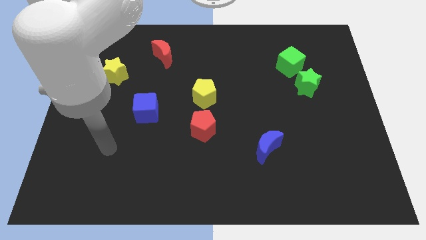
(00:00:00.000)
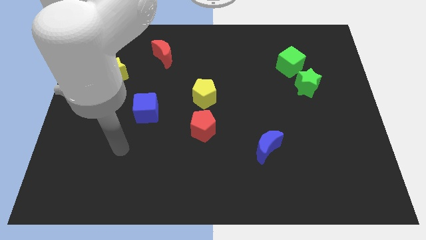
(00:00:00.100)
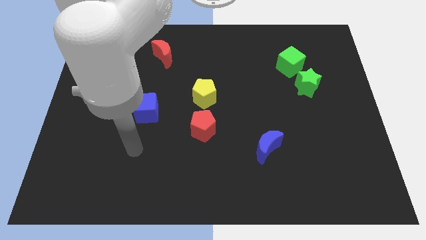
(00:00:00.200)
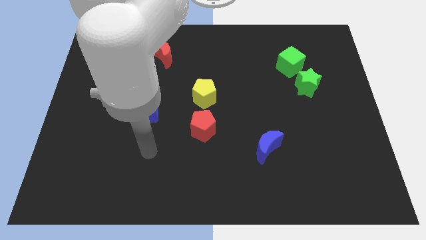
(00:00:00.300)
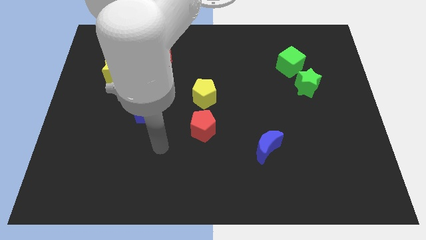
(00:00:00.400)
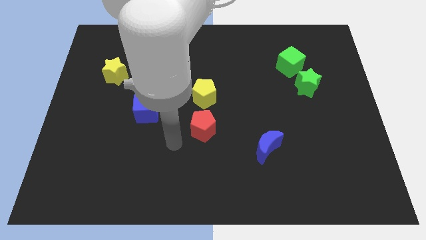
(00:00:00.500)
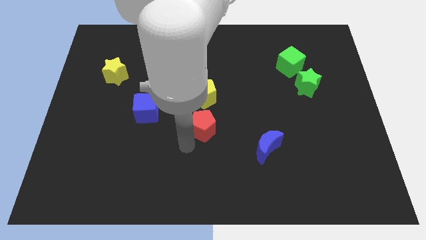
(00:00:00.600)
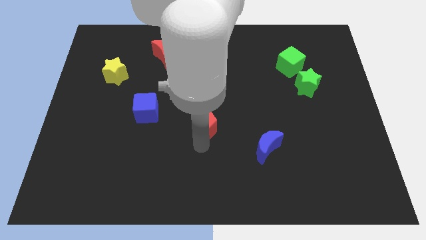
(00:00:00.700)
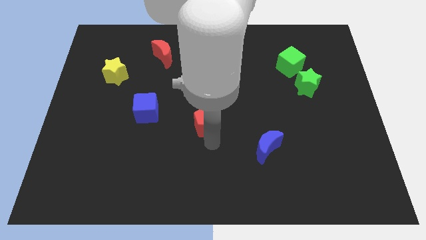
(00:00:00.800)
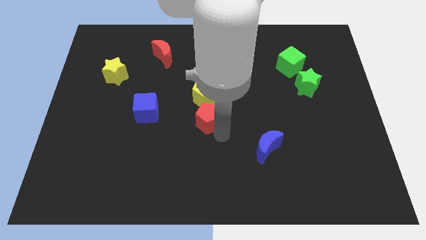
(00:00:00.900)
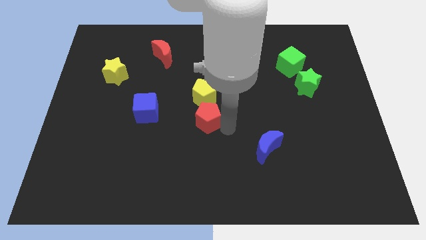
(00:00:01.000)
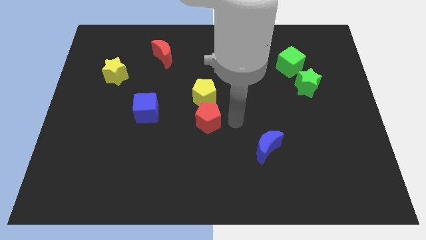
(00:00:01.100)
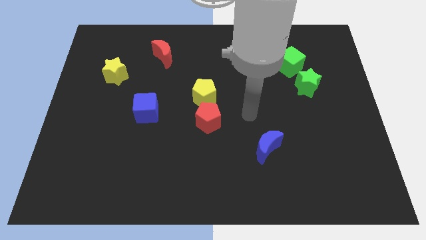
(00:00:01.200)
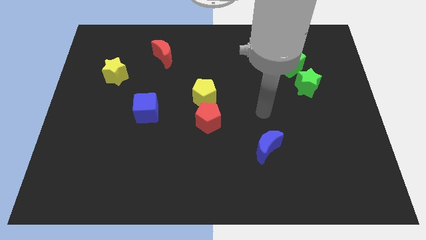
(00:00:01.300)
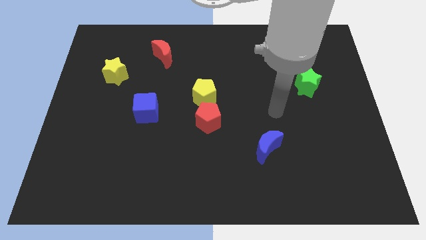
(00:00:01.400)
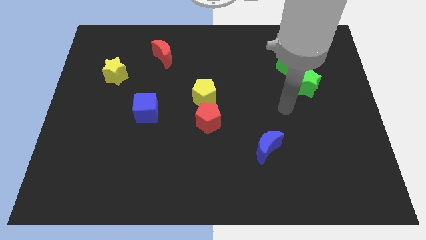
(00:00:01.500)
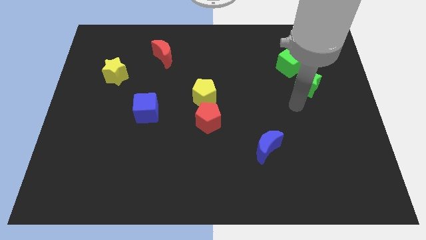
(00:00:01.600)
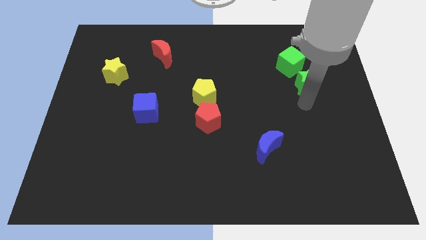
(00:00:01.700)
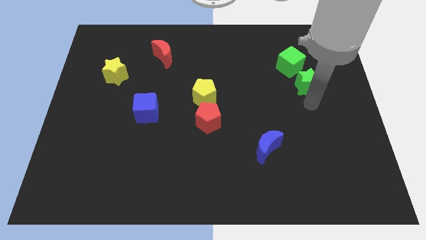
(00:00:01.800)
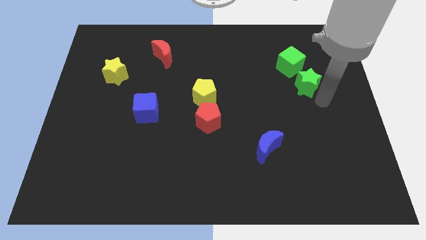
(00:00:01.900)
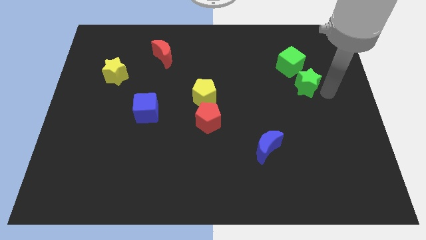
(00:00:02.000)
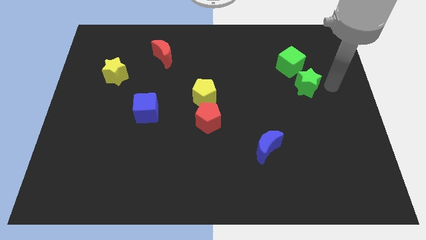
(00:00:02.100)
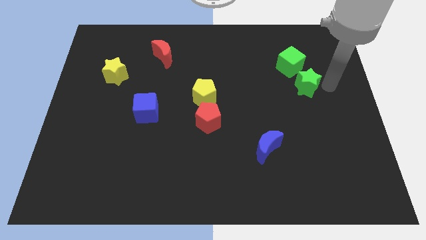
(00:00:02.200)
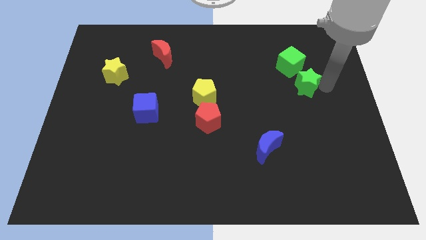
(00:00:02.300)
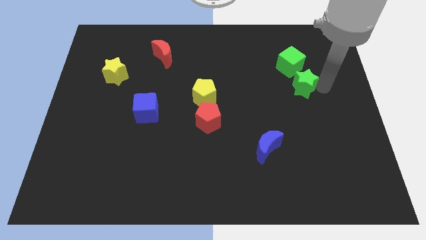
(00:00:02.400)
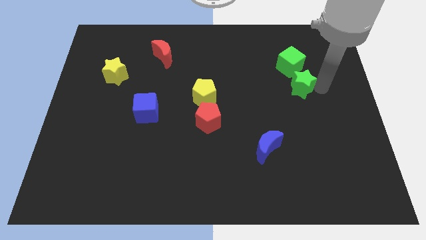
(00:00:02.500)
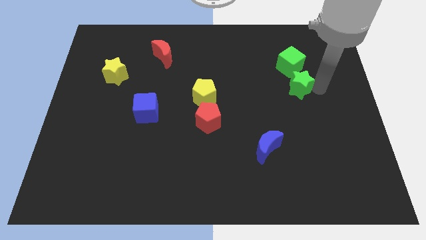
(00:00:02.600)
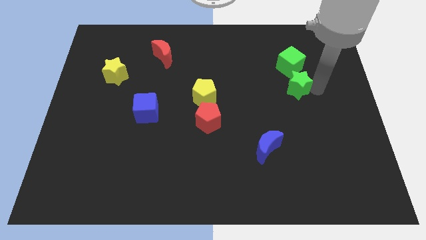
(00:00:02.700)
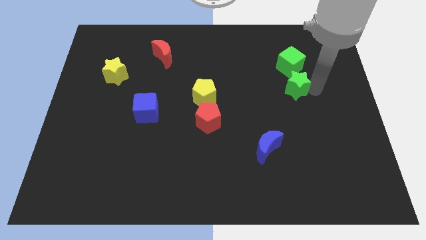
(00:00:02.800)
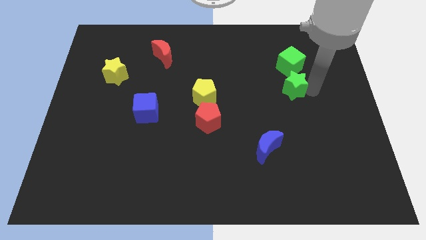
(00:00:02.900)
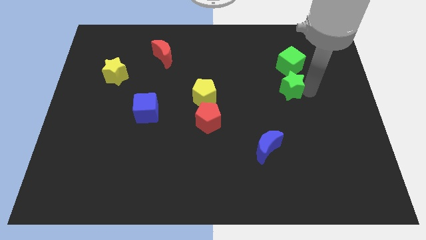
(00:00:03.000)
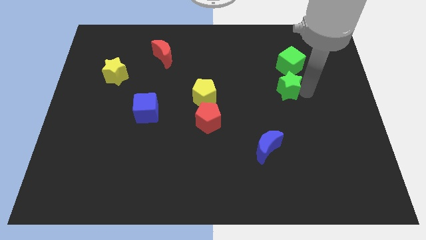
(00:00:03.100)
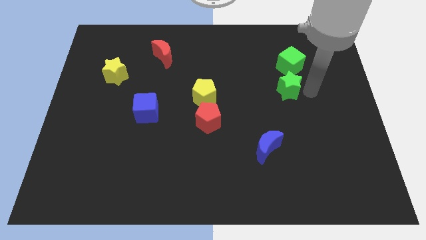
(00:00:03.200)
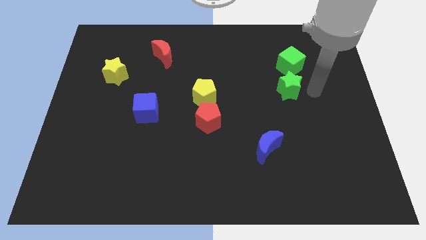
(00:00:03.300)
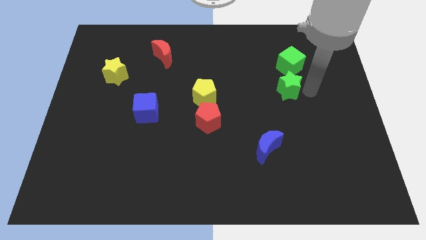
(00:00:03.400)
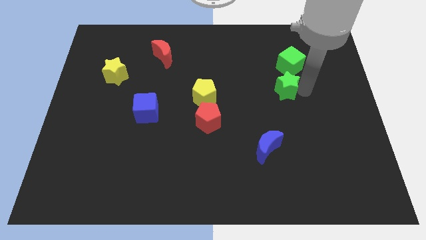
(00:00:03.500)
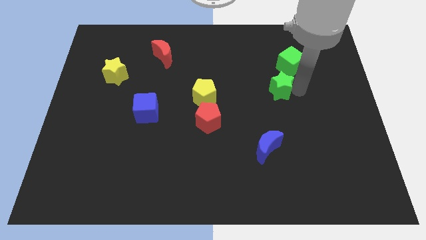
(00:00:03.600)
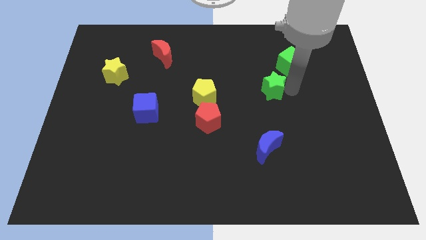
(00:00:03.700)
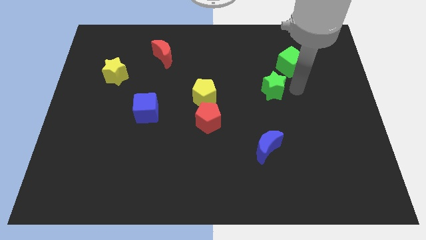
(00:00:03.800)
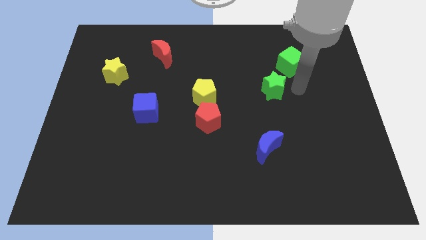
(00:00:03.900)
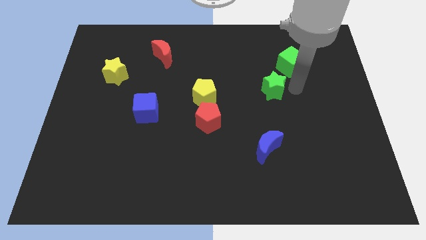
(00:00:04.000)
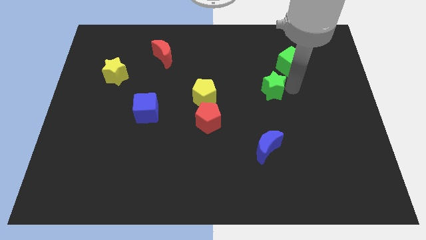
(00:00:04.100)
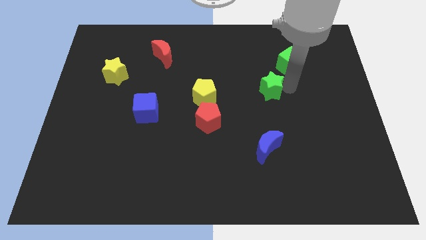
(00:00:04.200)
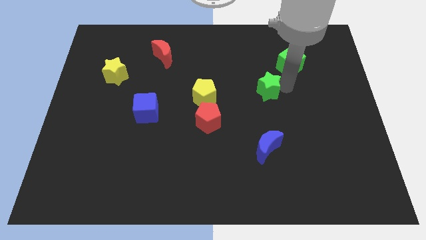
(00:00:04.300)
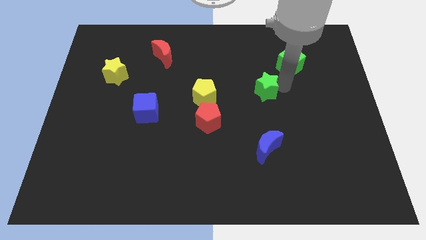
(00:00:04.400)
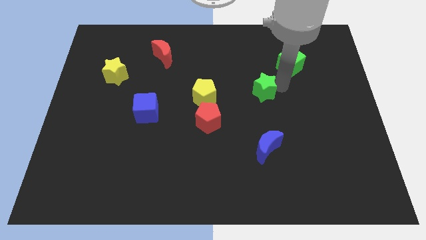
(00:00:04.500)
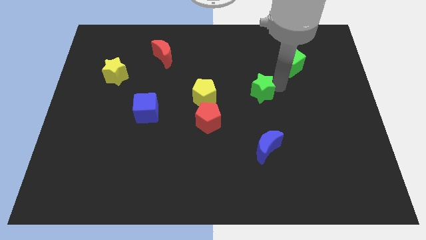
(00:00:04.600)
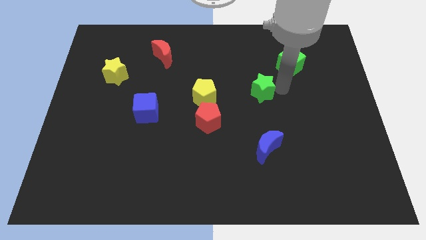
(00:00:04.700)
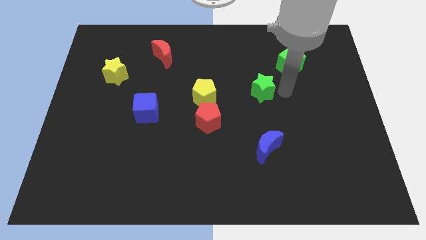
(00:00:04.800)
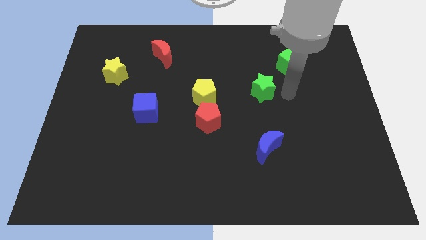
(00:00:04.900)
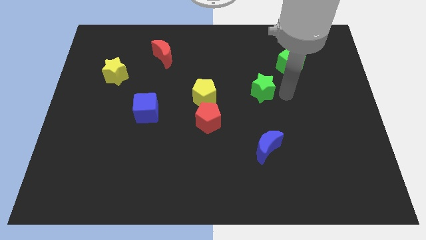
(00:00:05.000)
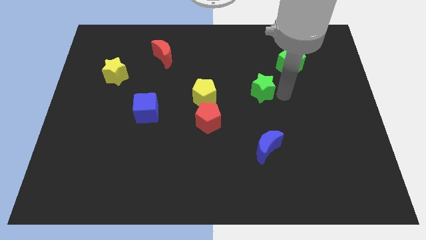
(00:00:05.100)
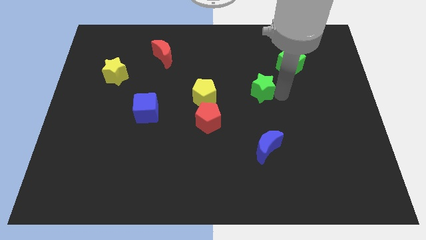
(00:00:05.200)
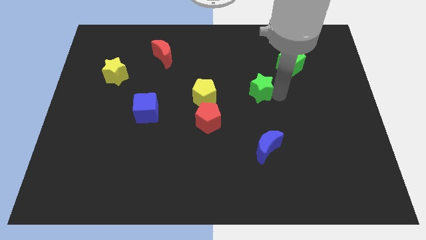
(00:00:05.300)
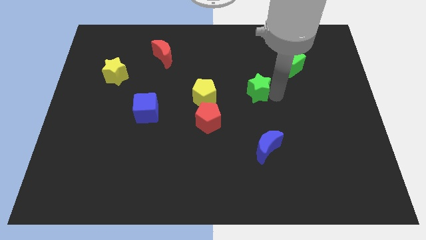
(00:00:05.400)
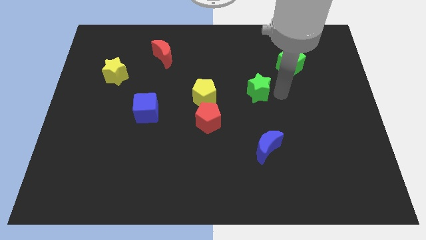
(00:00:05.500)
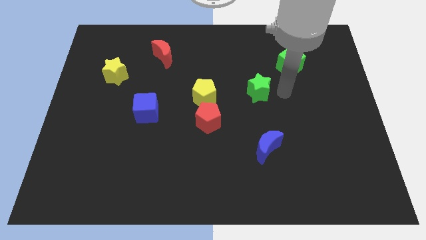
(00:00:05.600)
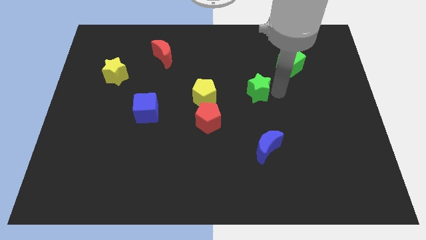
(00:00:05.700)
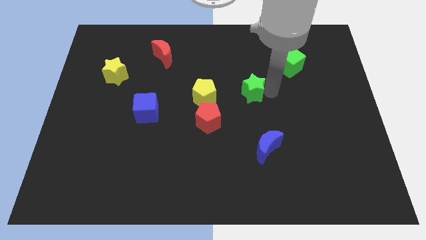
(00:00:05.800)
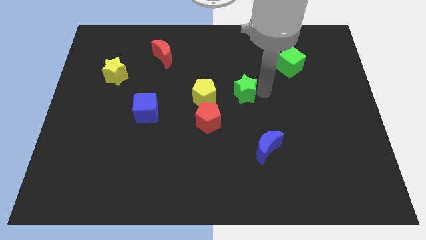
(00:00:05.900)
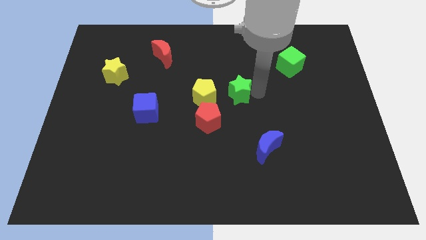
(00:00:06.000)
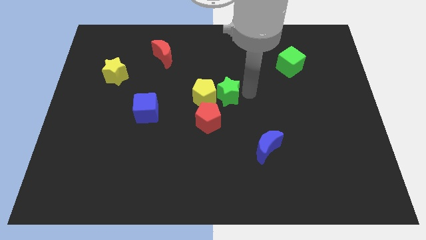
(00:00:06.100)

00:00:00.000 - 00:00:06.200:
move the green star next to the yellow pentagon

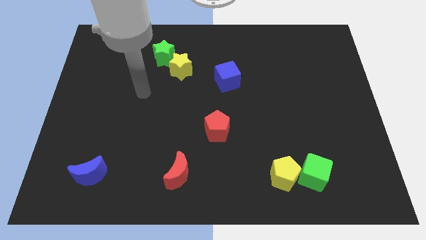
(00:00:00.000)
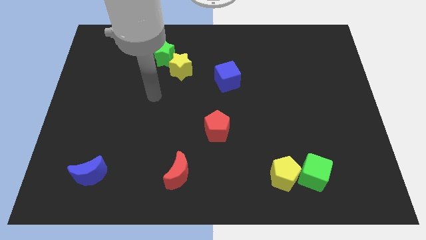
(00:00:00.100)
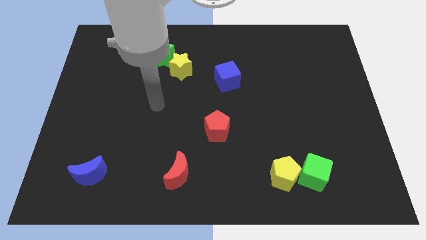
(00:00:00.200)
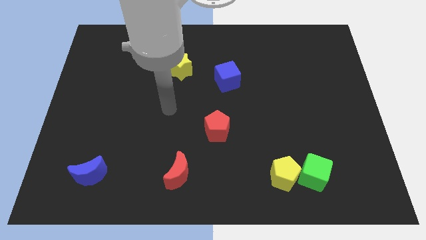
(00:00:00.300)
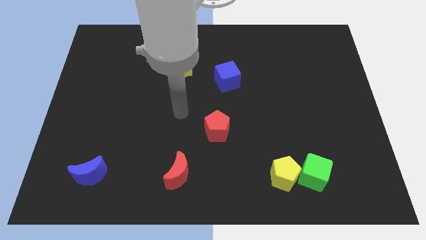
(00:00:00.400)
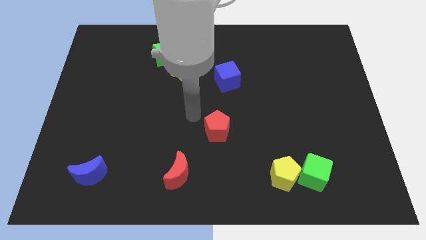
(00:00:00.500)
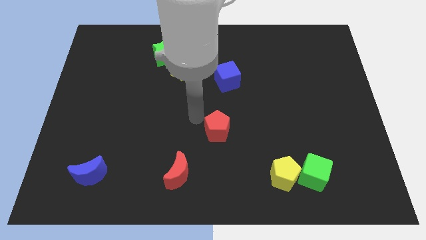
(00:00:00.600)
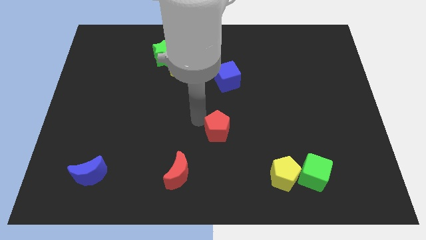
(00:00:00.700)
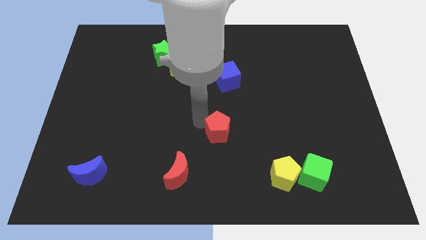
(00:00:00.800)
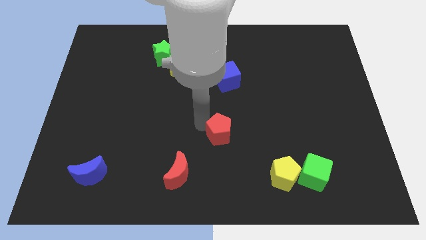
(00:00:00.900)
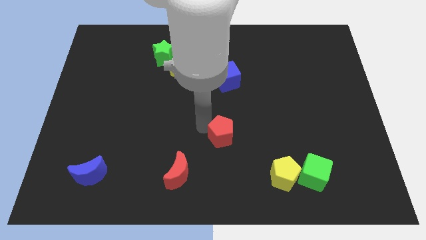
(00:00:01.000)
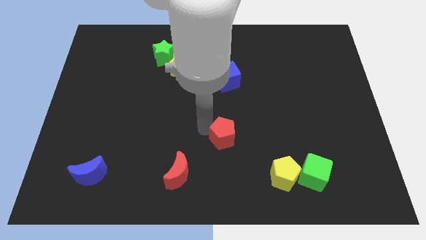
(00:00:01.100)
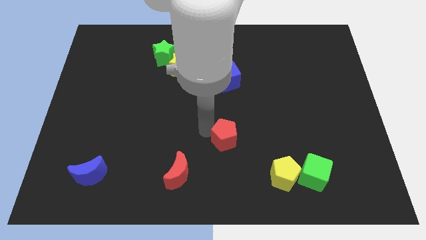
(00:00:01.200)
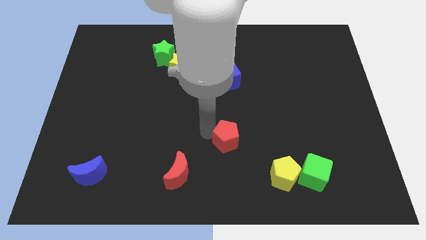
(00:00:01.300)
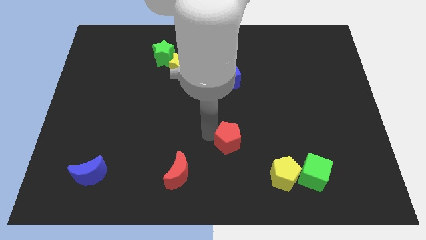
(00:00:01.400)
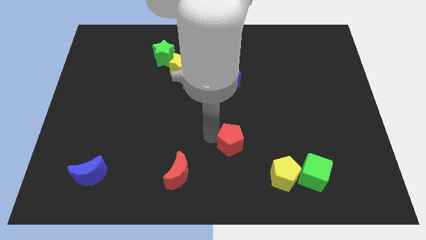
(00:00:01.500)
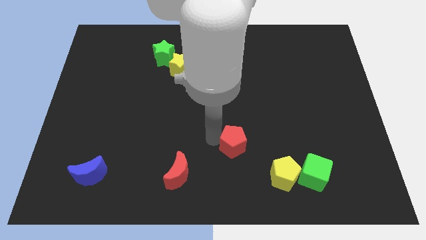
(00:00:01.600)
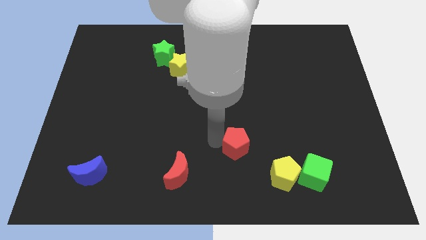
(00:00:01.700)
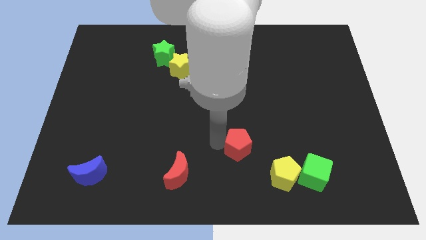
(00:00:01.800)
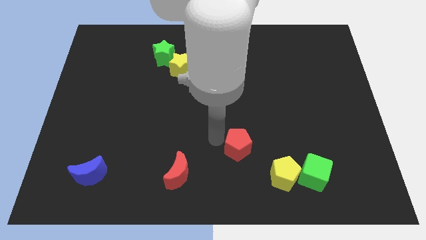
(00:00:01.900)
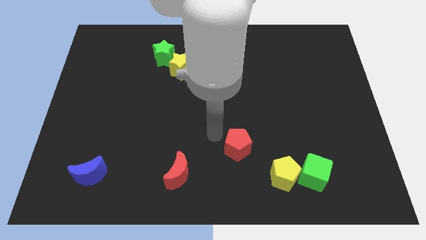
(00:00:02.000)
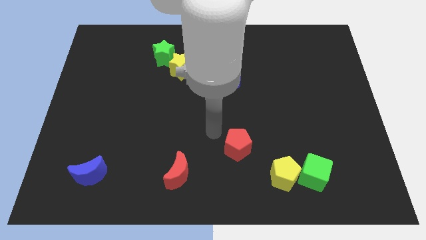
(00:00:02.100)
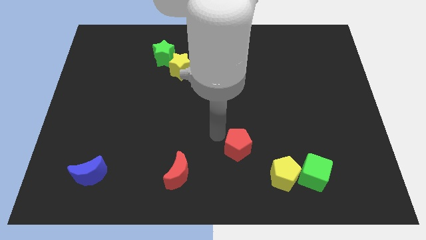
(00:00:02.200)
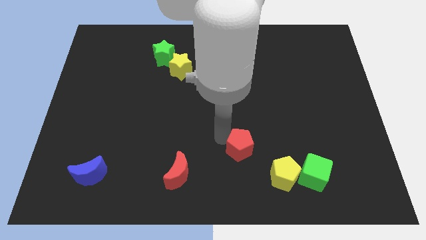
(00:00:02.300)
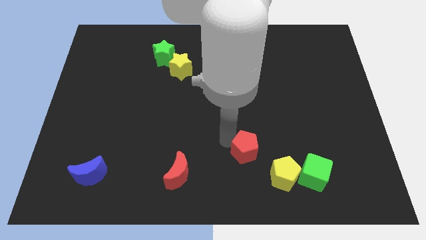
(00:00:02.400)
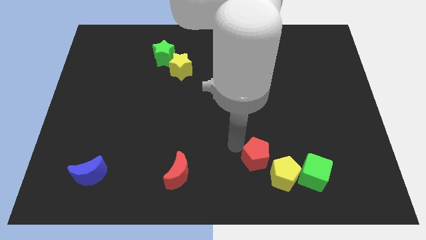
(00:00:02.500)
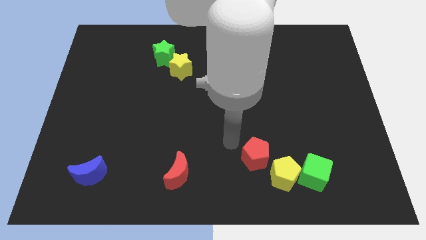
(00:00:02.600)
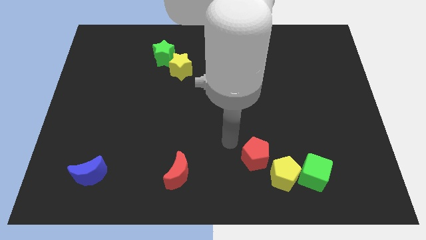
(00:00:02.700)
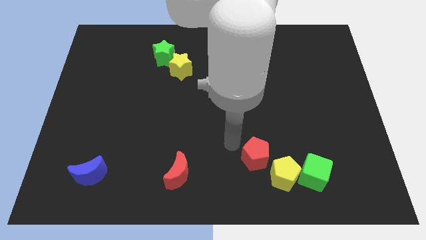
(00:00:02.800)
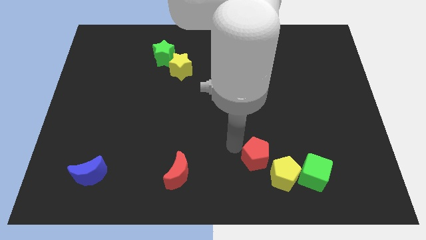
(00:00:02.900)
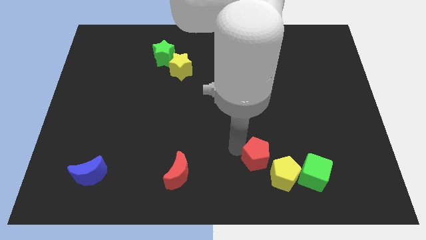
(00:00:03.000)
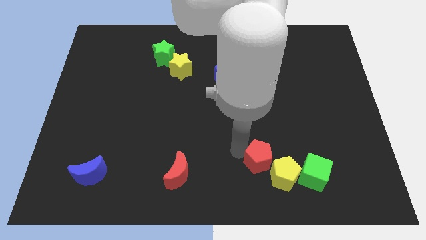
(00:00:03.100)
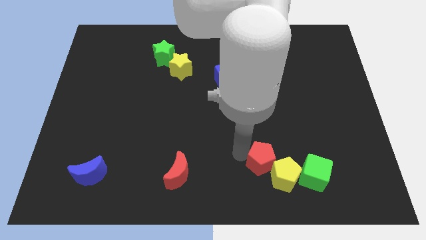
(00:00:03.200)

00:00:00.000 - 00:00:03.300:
push the red pentagon to the yellow pentagon
